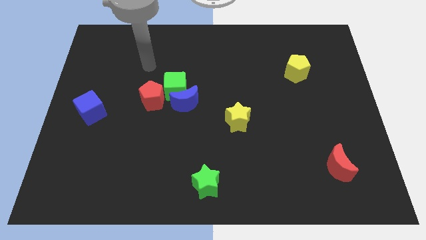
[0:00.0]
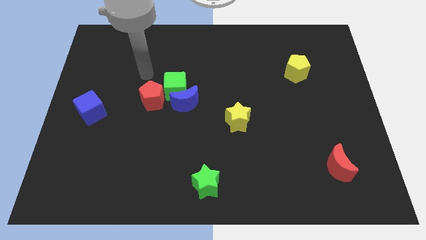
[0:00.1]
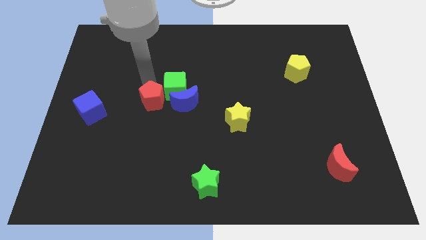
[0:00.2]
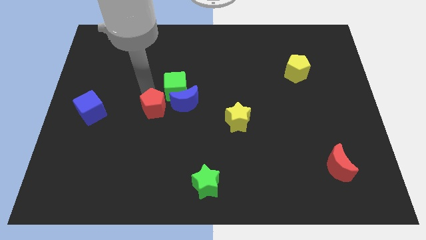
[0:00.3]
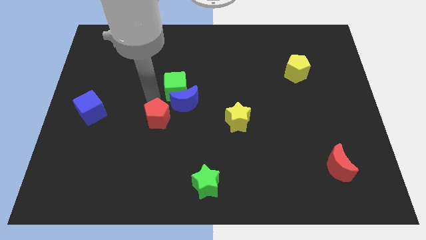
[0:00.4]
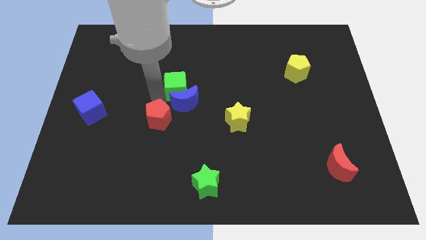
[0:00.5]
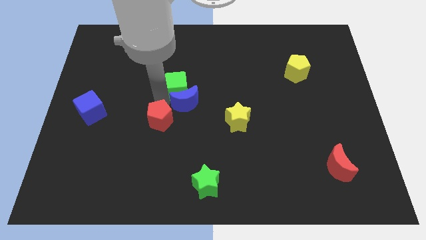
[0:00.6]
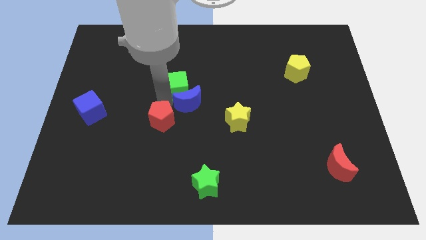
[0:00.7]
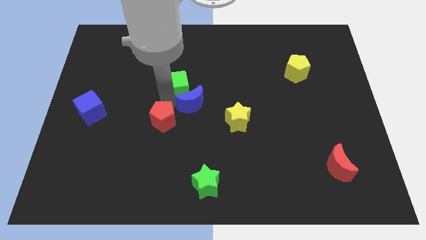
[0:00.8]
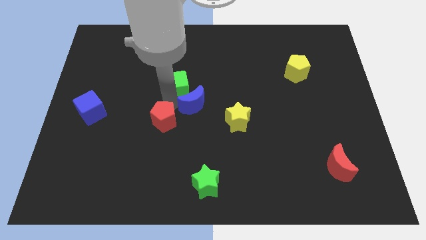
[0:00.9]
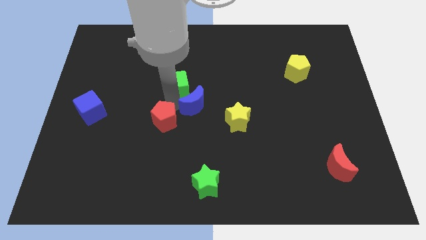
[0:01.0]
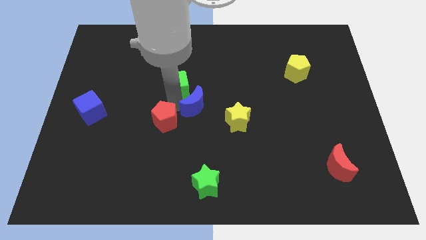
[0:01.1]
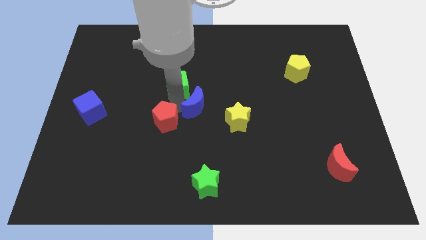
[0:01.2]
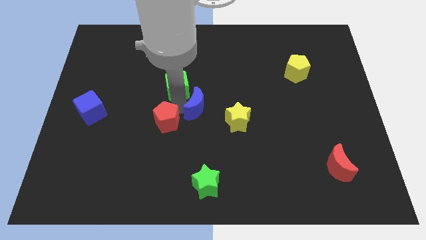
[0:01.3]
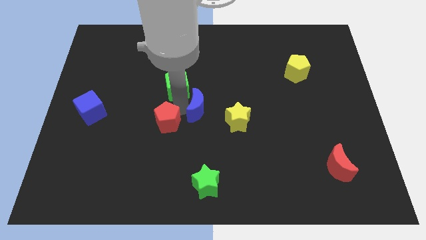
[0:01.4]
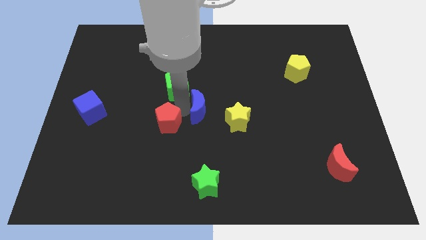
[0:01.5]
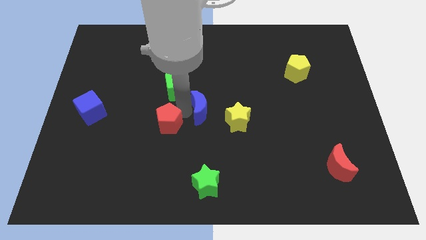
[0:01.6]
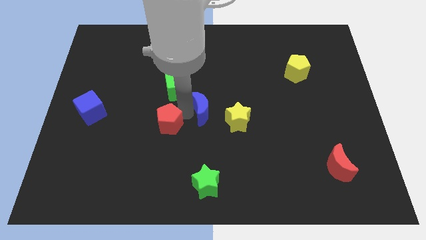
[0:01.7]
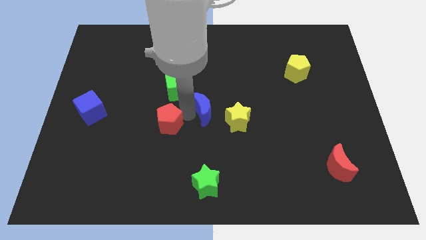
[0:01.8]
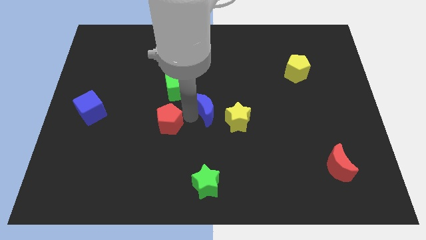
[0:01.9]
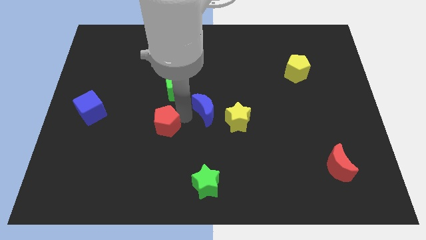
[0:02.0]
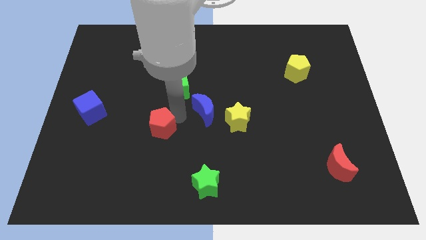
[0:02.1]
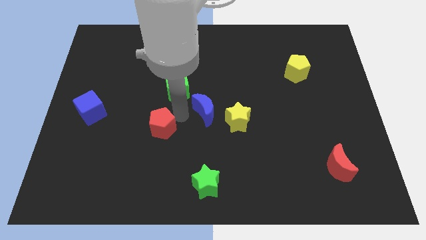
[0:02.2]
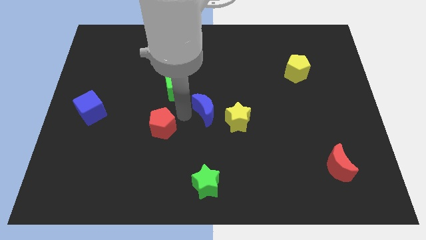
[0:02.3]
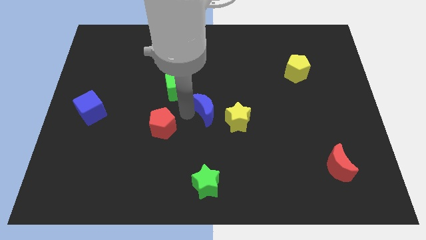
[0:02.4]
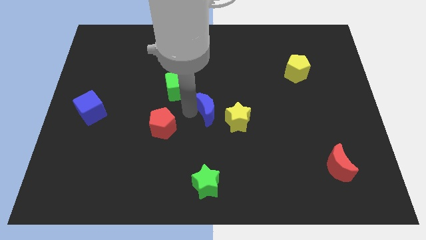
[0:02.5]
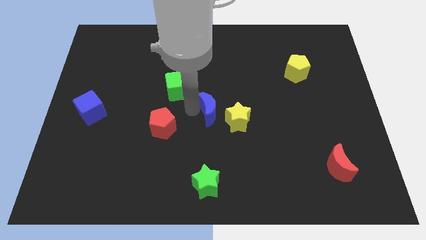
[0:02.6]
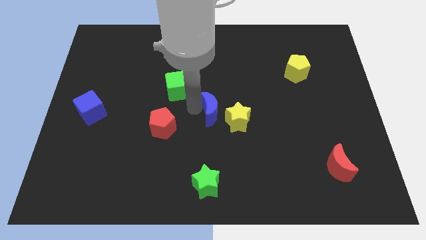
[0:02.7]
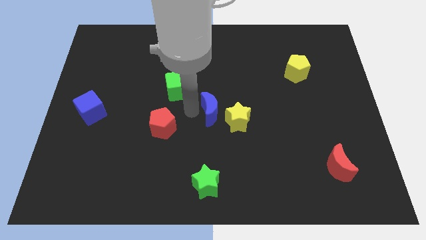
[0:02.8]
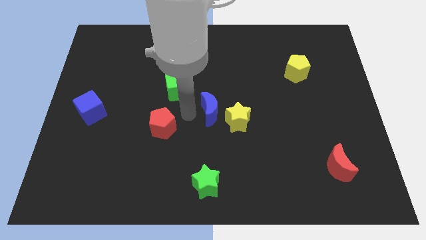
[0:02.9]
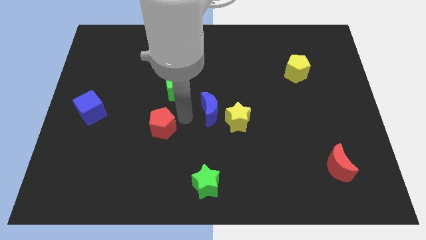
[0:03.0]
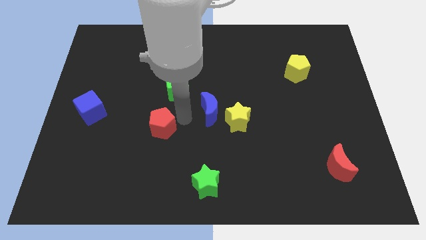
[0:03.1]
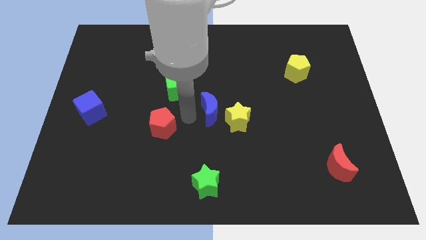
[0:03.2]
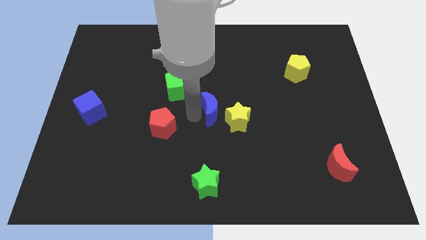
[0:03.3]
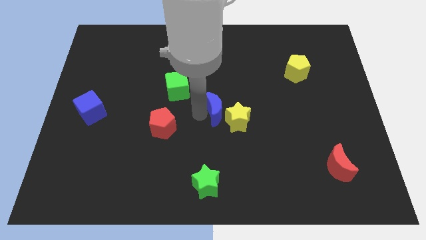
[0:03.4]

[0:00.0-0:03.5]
push the blue moon a little right

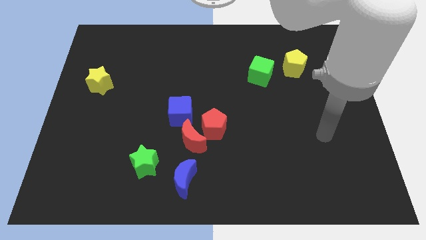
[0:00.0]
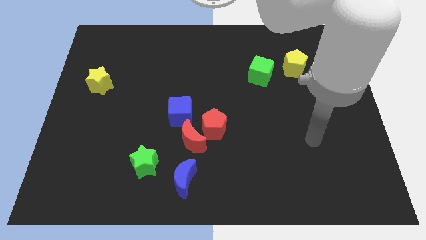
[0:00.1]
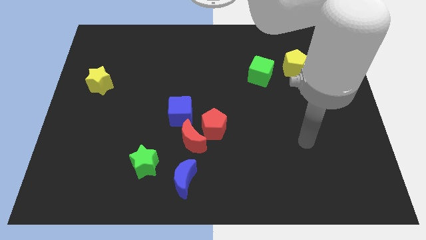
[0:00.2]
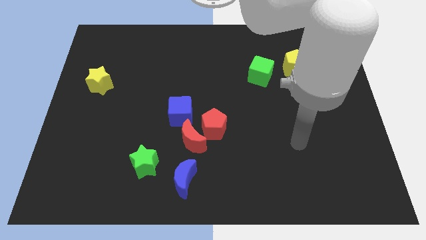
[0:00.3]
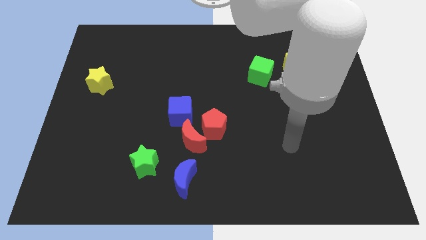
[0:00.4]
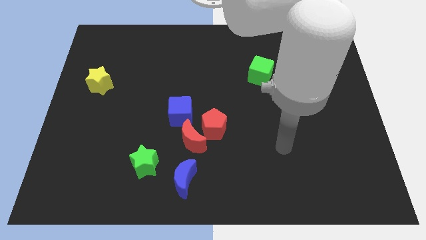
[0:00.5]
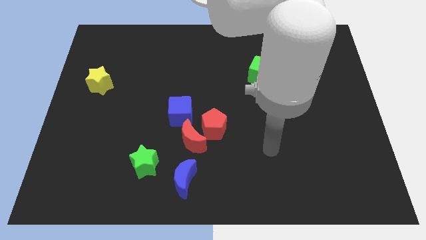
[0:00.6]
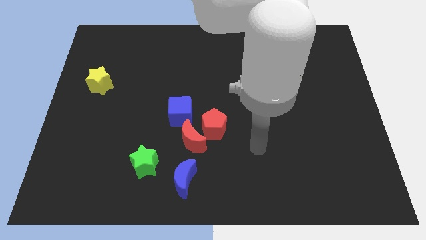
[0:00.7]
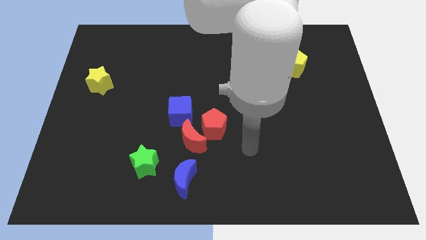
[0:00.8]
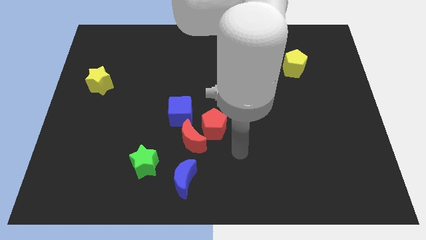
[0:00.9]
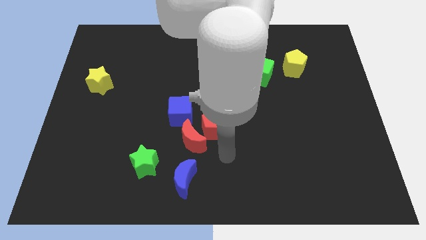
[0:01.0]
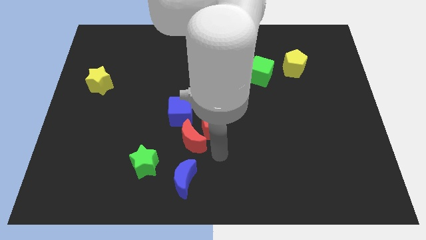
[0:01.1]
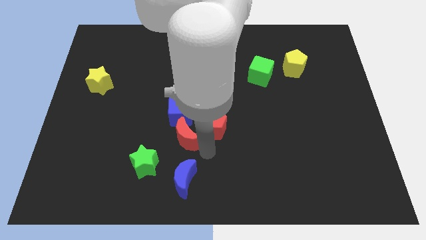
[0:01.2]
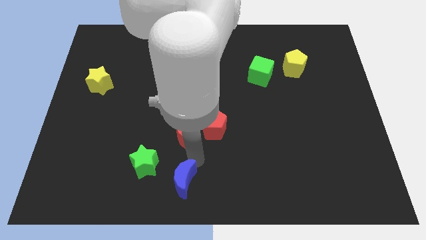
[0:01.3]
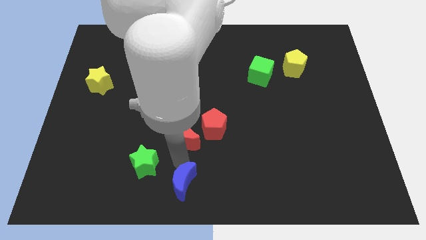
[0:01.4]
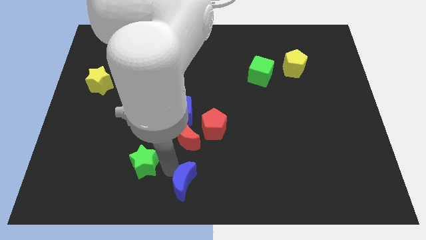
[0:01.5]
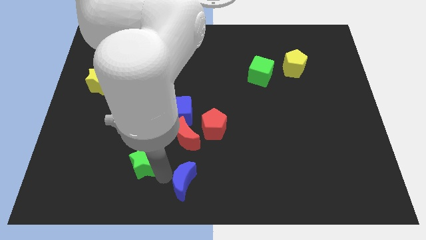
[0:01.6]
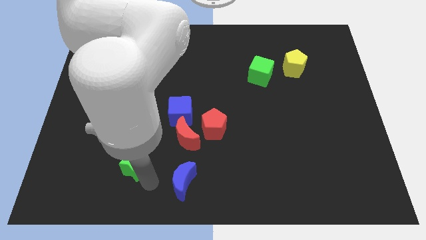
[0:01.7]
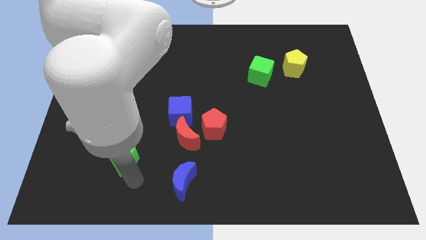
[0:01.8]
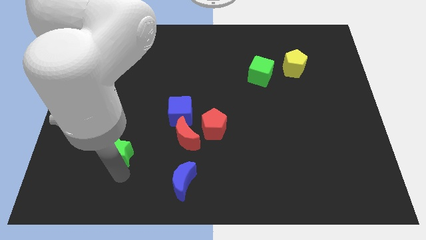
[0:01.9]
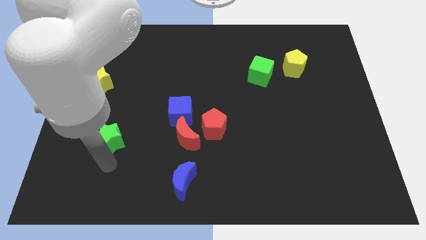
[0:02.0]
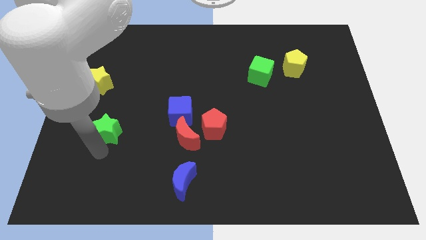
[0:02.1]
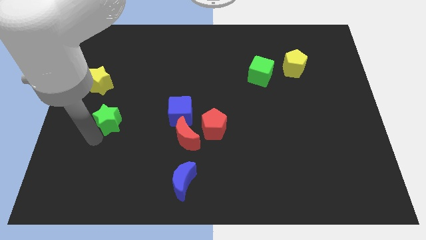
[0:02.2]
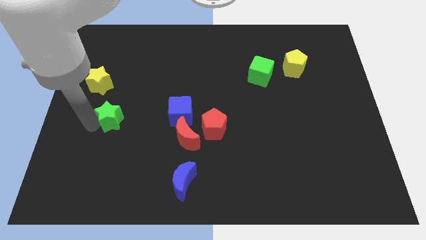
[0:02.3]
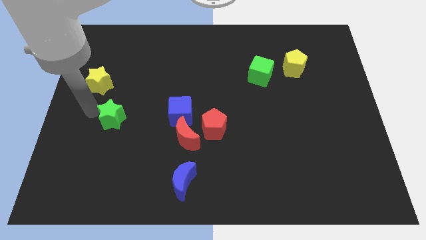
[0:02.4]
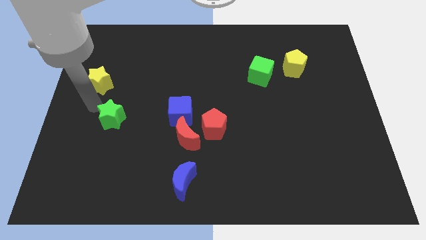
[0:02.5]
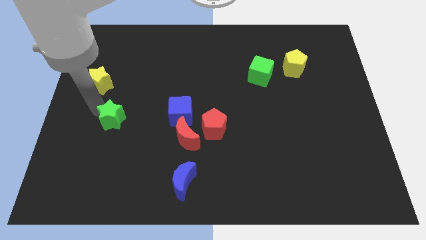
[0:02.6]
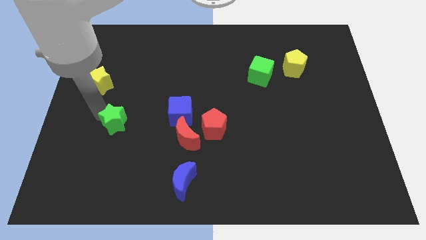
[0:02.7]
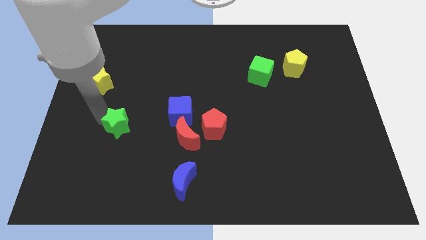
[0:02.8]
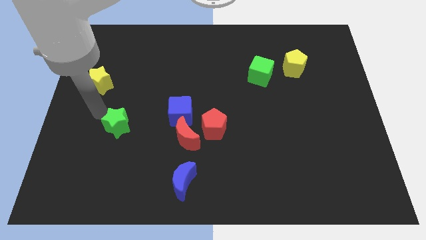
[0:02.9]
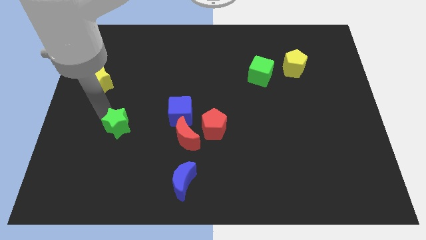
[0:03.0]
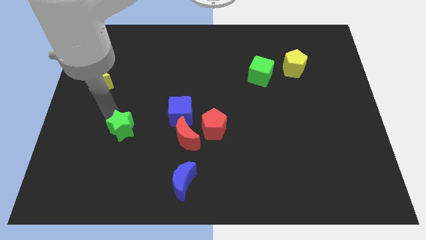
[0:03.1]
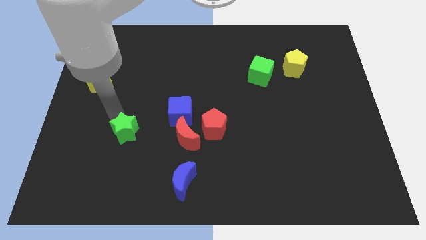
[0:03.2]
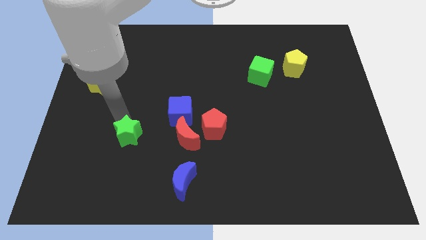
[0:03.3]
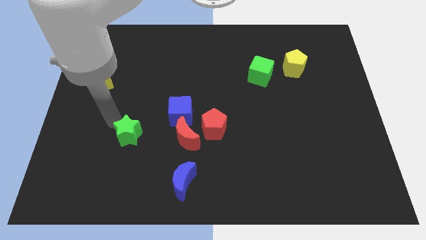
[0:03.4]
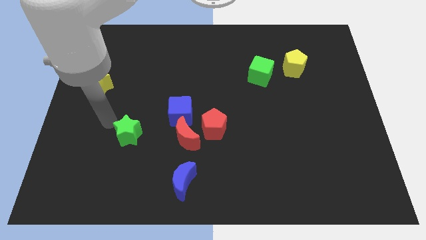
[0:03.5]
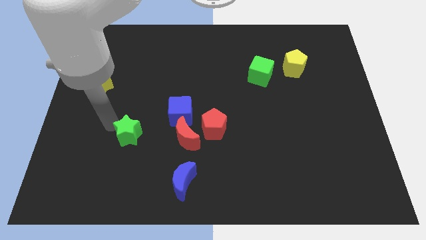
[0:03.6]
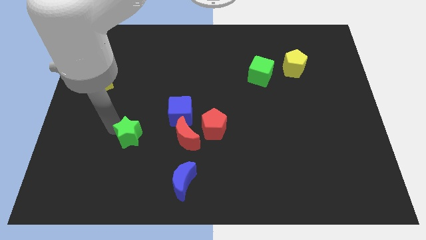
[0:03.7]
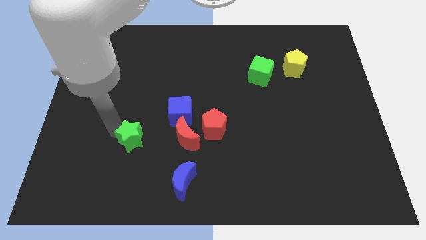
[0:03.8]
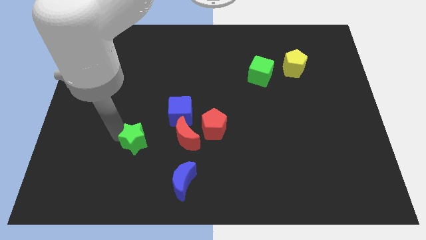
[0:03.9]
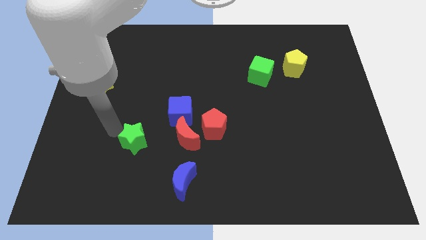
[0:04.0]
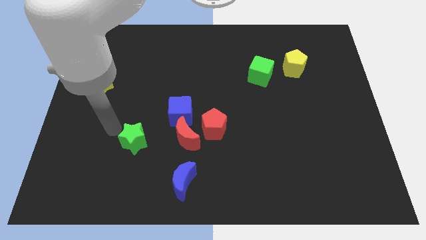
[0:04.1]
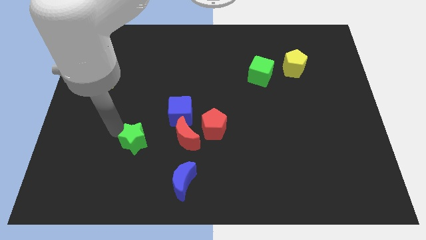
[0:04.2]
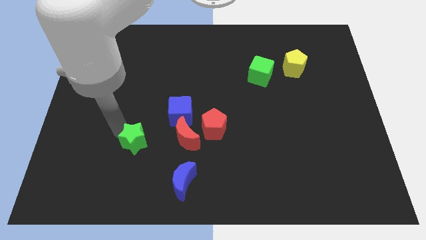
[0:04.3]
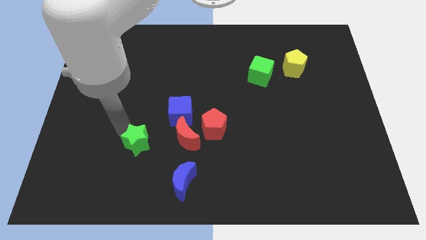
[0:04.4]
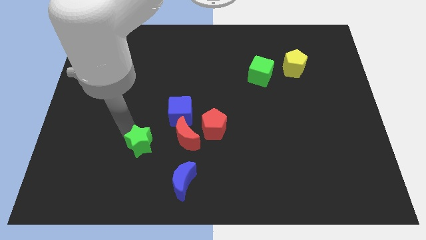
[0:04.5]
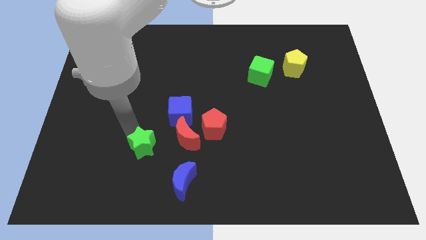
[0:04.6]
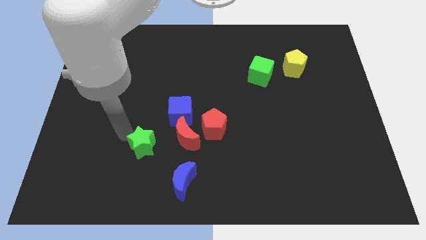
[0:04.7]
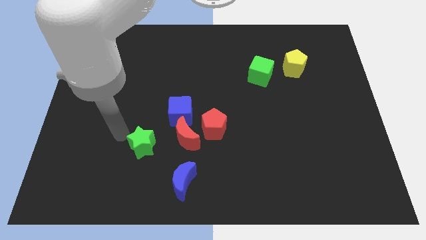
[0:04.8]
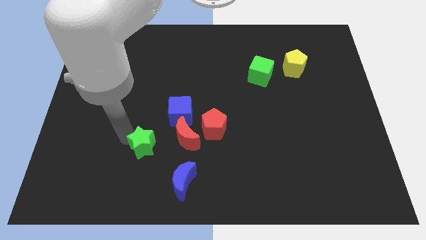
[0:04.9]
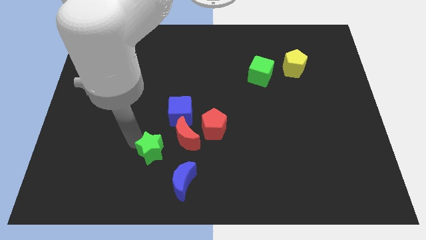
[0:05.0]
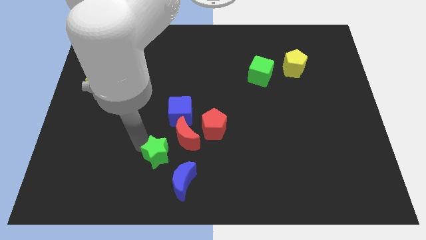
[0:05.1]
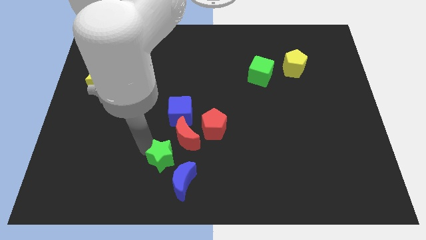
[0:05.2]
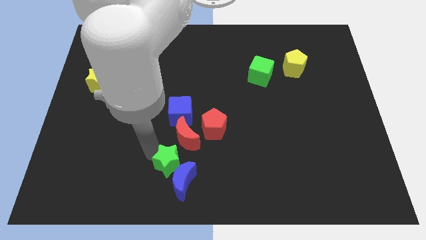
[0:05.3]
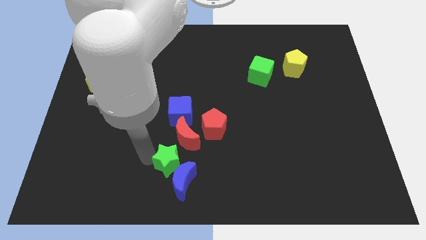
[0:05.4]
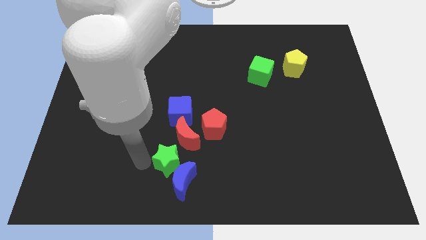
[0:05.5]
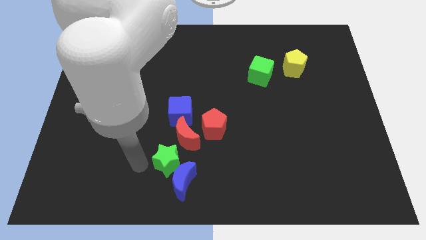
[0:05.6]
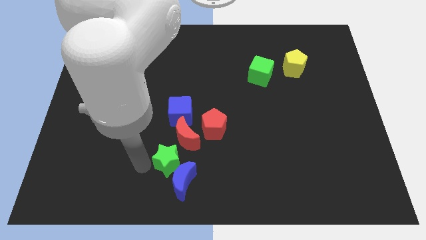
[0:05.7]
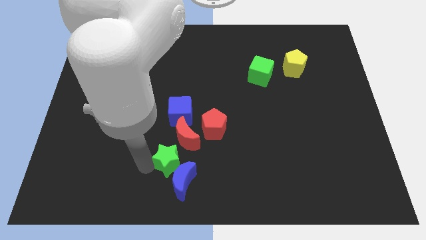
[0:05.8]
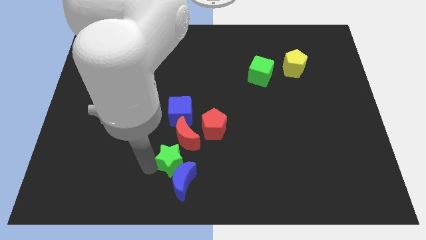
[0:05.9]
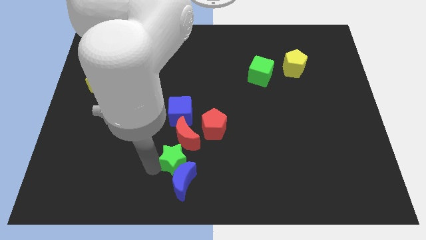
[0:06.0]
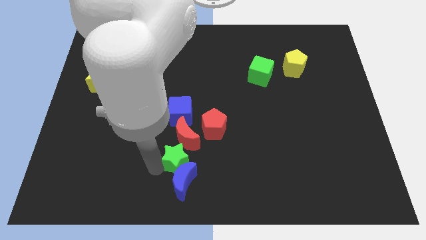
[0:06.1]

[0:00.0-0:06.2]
slide the green star somewhat to the right
